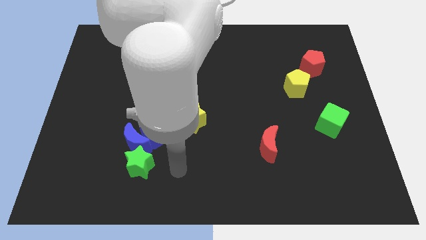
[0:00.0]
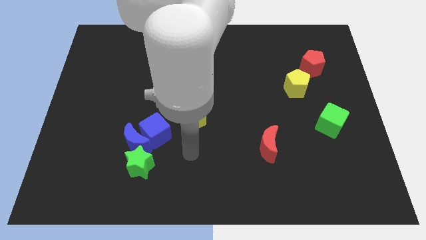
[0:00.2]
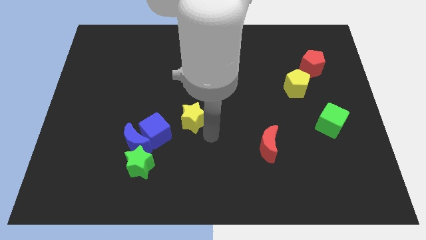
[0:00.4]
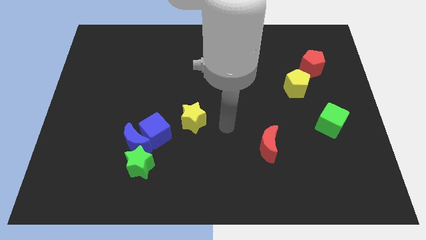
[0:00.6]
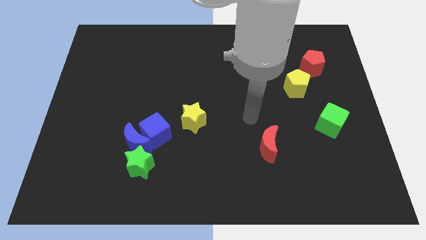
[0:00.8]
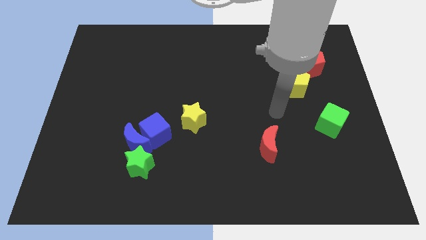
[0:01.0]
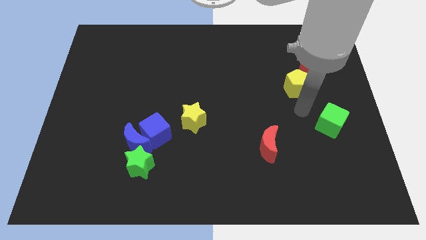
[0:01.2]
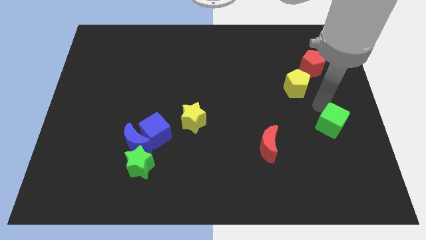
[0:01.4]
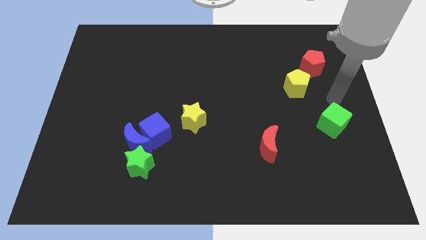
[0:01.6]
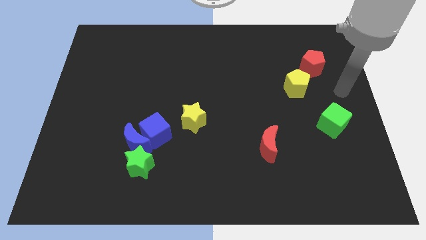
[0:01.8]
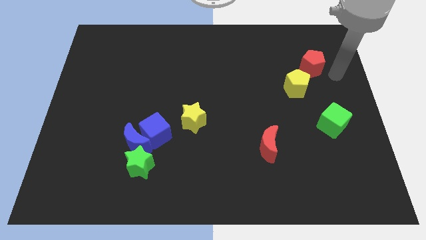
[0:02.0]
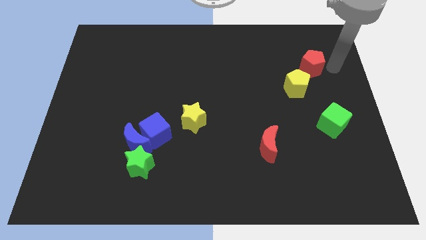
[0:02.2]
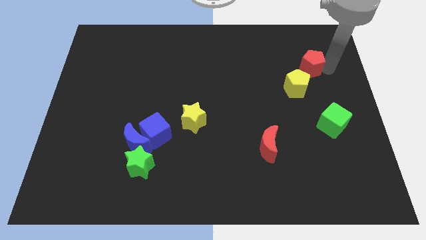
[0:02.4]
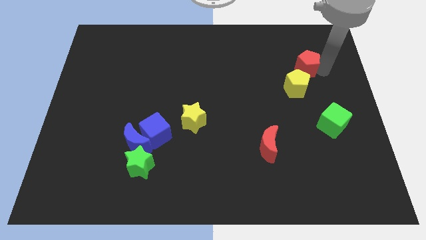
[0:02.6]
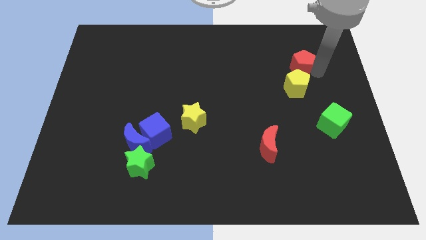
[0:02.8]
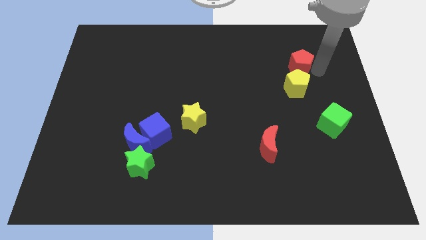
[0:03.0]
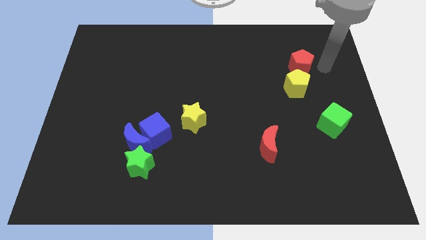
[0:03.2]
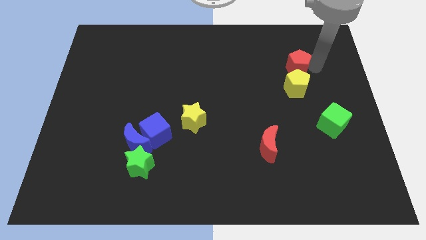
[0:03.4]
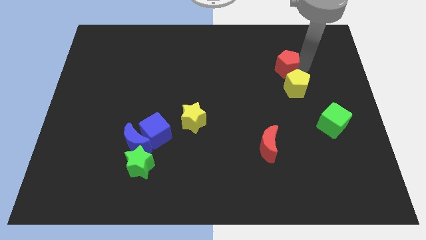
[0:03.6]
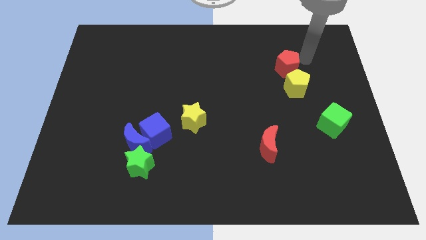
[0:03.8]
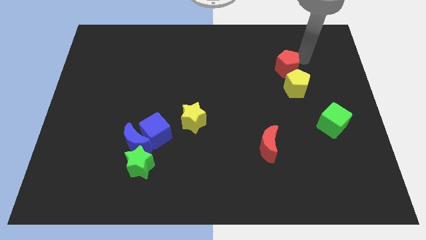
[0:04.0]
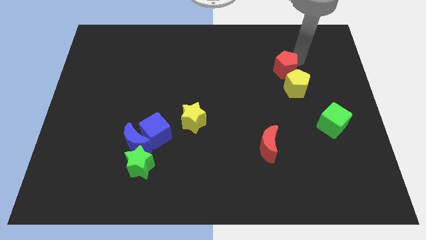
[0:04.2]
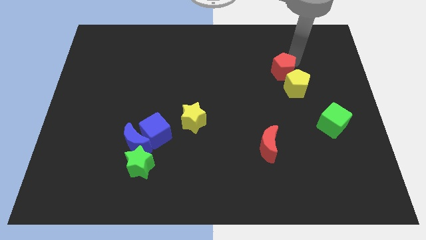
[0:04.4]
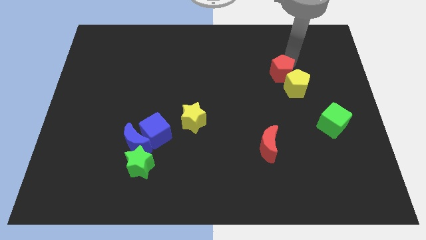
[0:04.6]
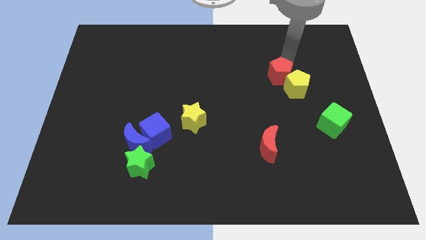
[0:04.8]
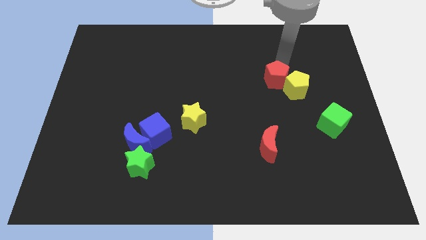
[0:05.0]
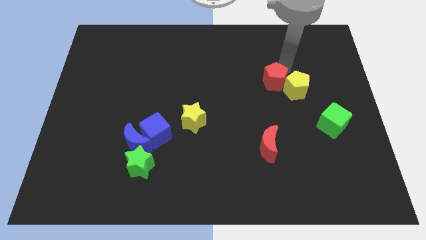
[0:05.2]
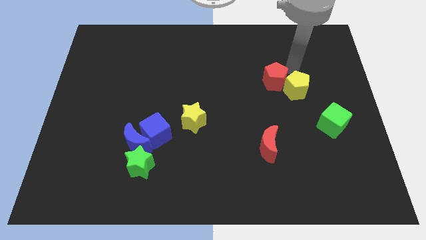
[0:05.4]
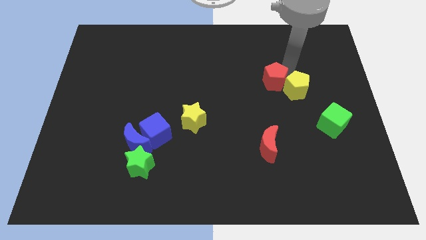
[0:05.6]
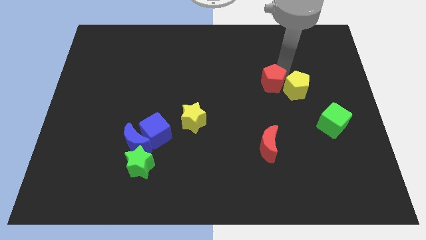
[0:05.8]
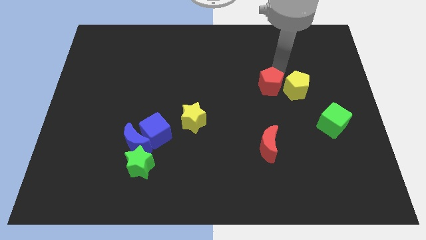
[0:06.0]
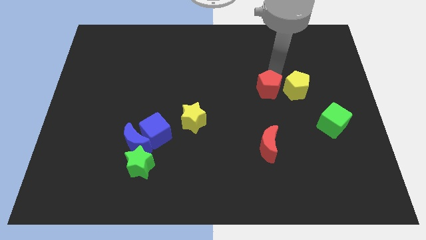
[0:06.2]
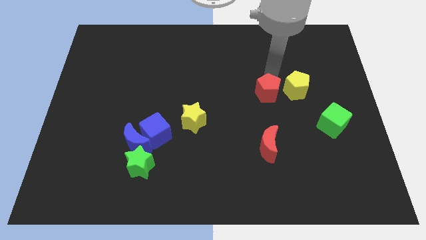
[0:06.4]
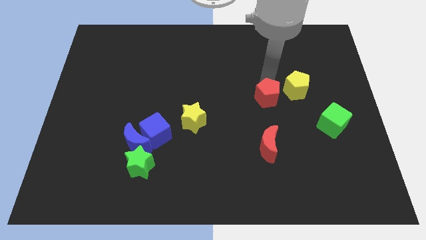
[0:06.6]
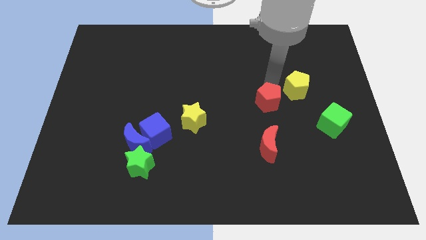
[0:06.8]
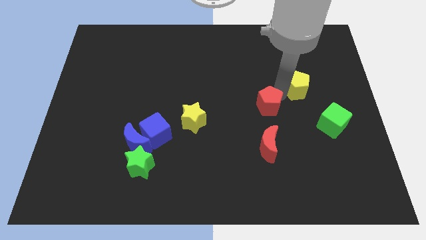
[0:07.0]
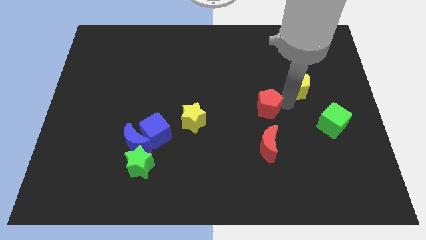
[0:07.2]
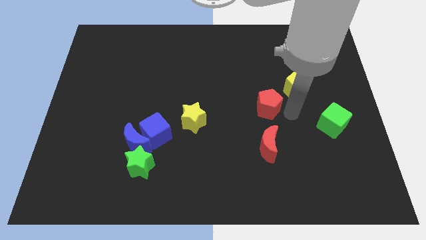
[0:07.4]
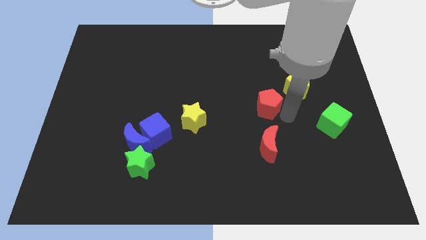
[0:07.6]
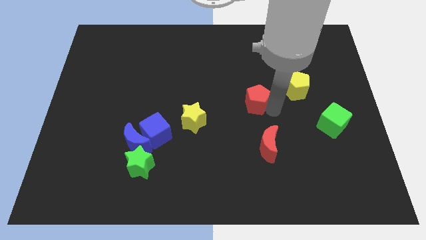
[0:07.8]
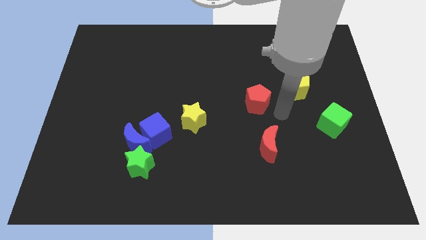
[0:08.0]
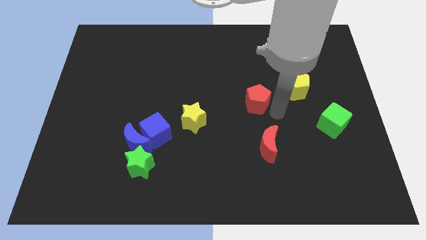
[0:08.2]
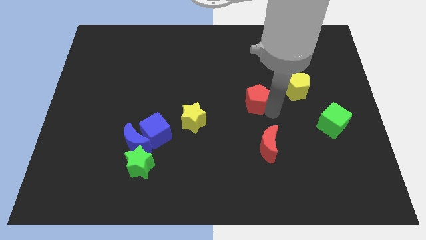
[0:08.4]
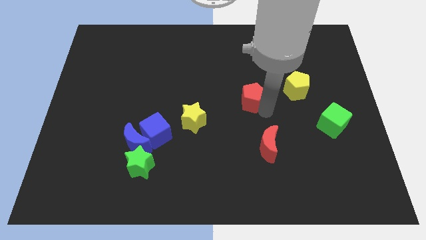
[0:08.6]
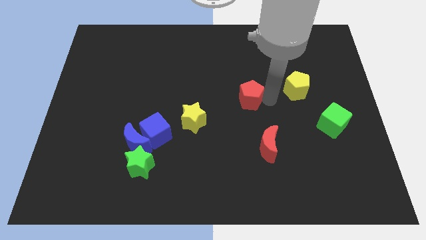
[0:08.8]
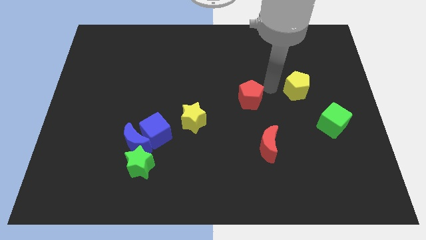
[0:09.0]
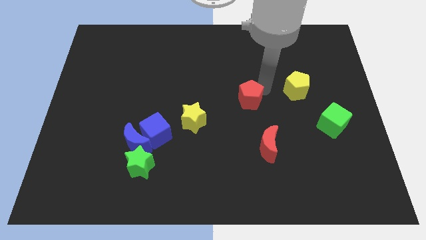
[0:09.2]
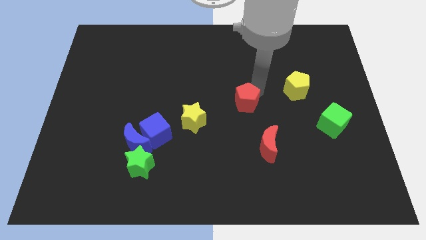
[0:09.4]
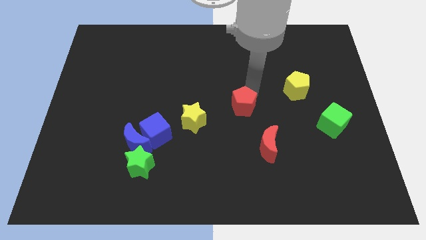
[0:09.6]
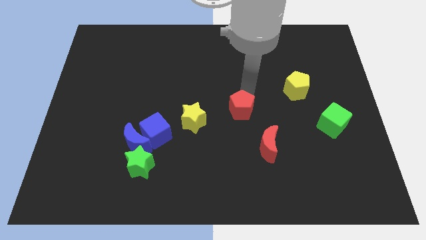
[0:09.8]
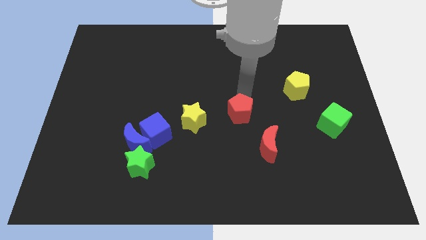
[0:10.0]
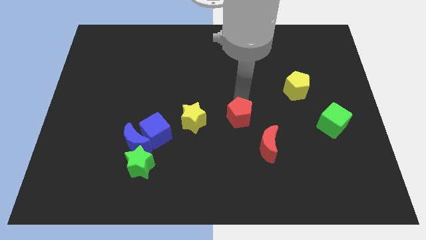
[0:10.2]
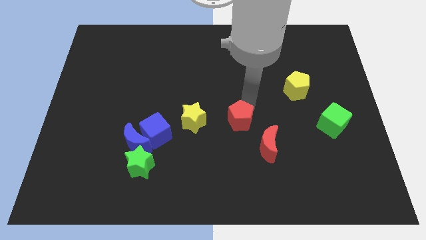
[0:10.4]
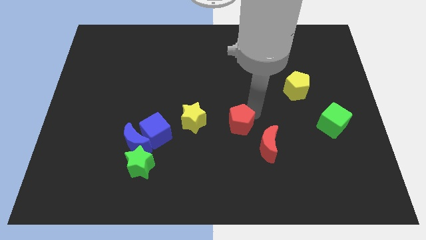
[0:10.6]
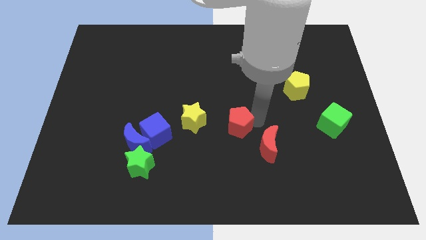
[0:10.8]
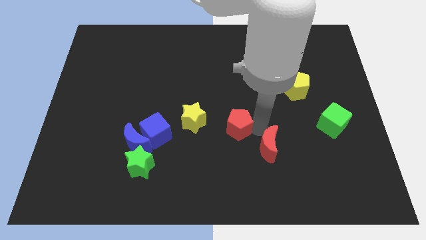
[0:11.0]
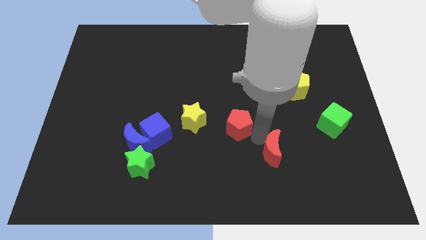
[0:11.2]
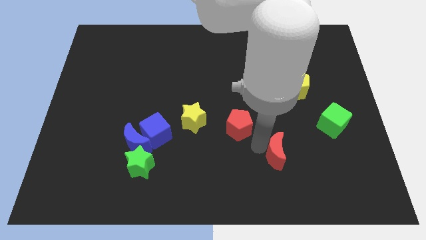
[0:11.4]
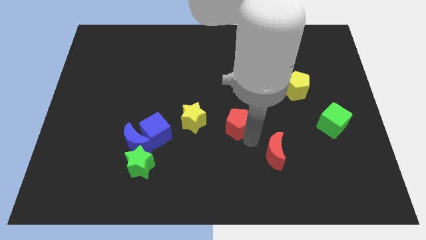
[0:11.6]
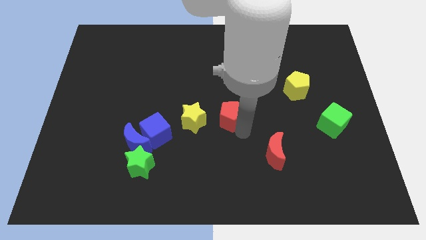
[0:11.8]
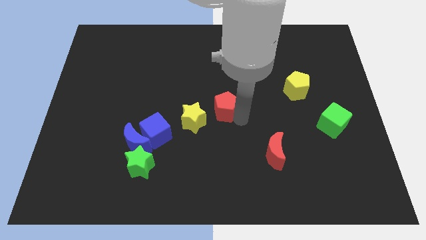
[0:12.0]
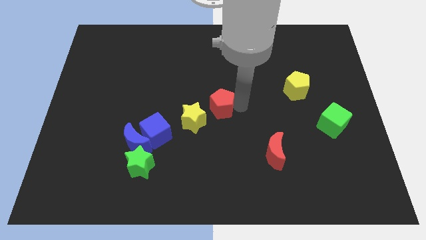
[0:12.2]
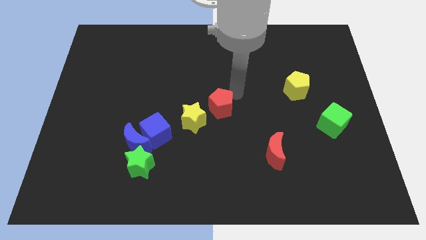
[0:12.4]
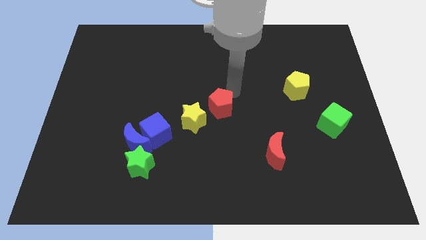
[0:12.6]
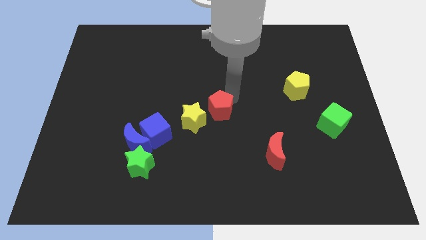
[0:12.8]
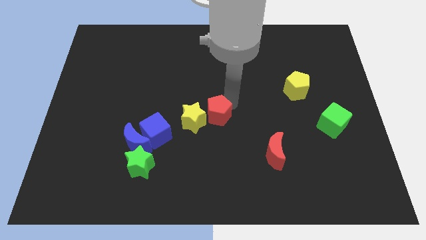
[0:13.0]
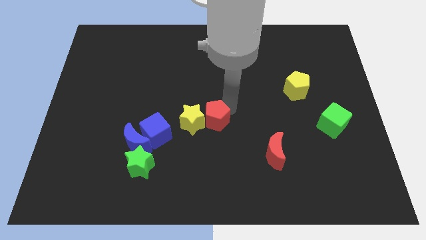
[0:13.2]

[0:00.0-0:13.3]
put the red pentagon just right of the blue cube
